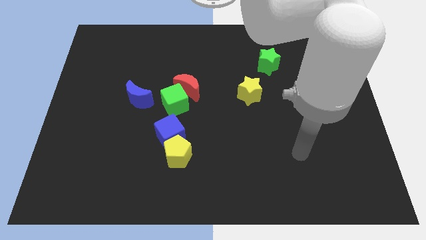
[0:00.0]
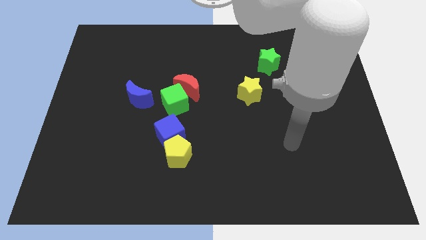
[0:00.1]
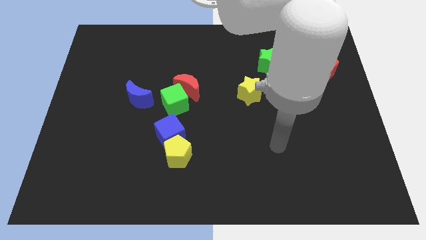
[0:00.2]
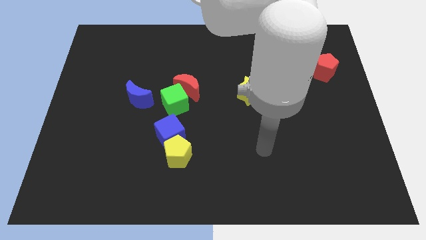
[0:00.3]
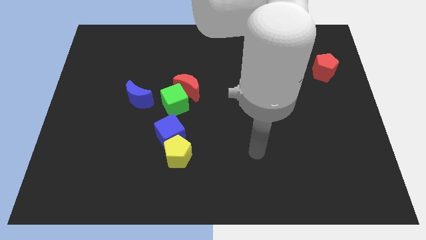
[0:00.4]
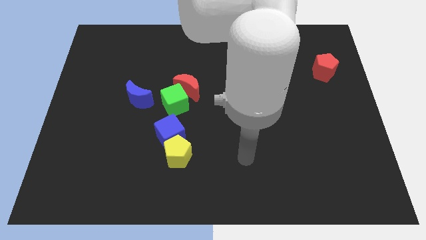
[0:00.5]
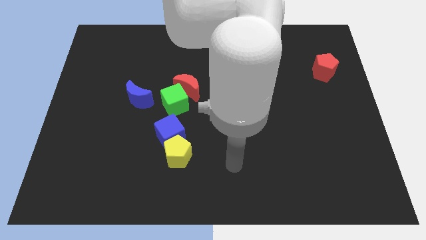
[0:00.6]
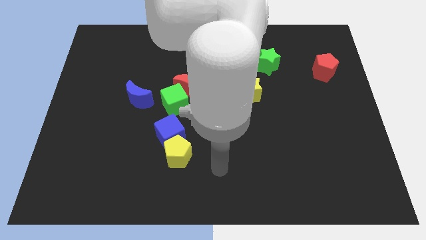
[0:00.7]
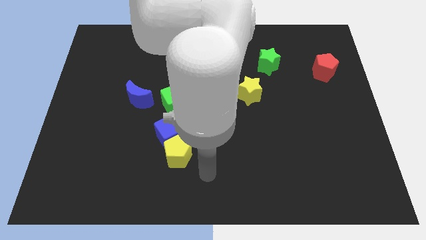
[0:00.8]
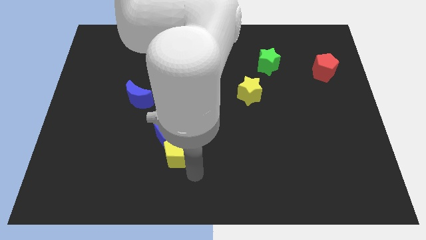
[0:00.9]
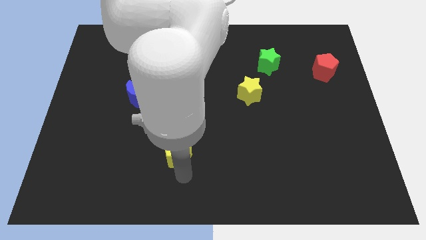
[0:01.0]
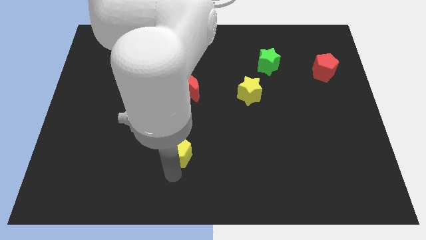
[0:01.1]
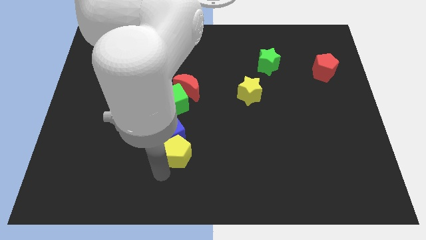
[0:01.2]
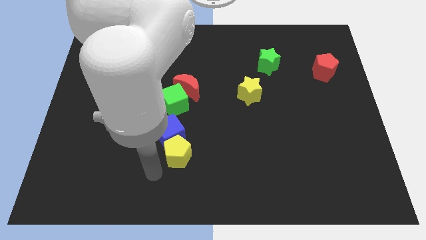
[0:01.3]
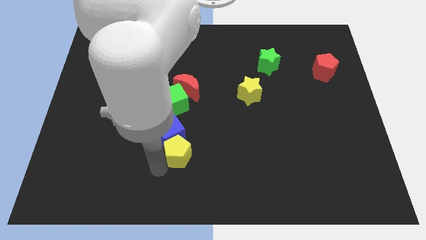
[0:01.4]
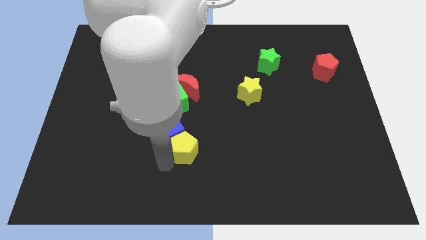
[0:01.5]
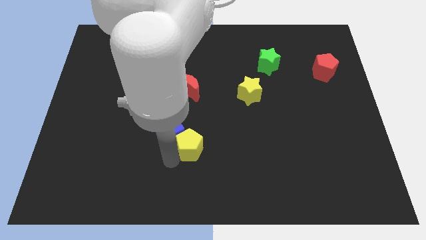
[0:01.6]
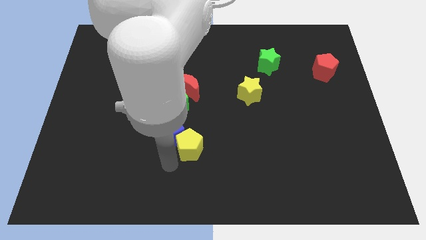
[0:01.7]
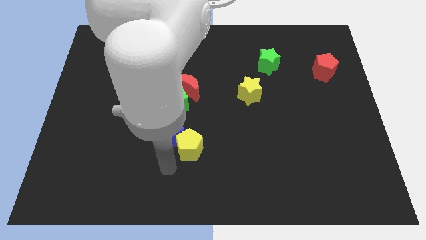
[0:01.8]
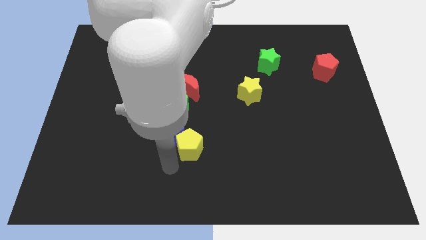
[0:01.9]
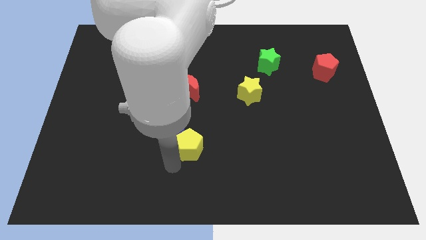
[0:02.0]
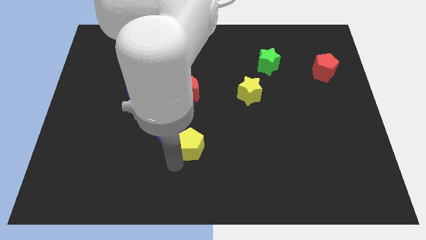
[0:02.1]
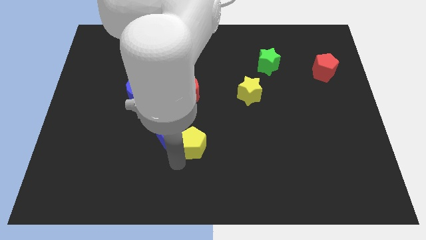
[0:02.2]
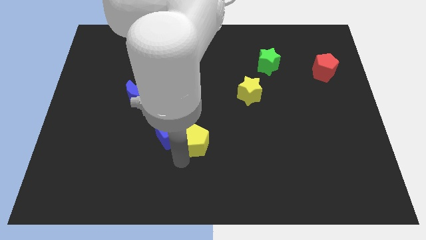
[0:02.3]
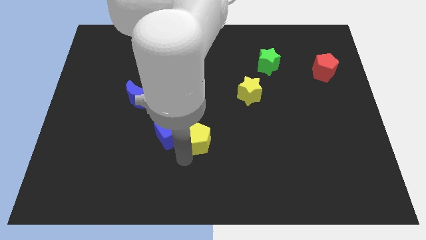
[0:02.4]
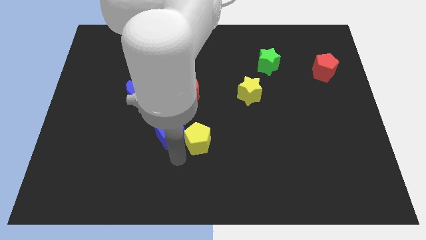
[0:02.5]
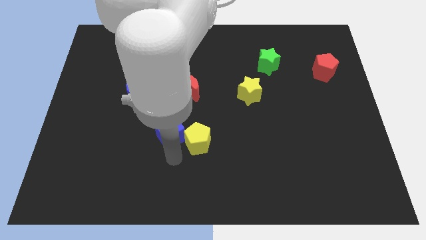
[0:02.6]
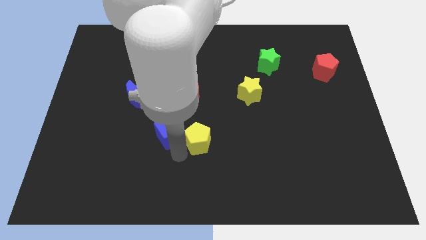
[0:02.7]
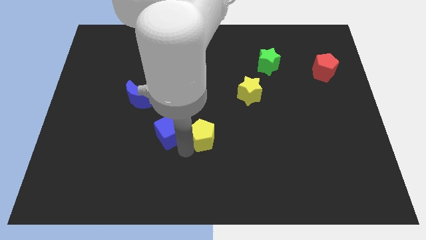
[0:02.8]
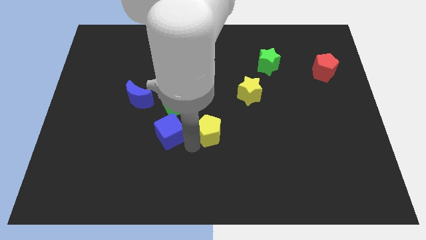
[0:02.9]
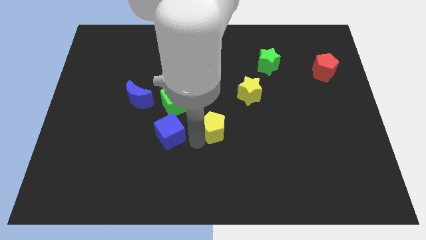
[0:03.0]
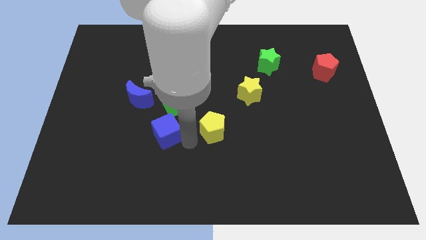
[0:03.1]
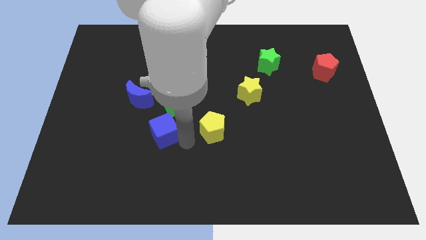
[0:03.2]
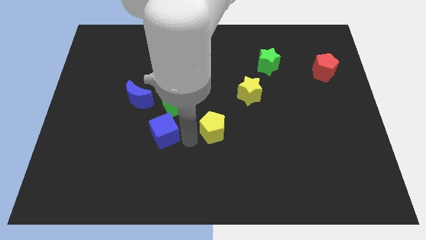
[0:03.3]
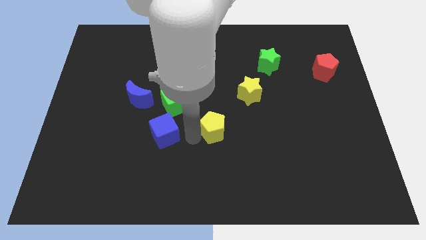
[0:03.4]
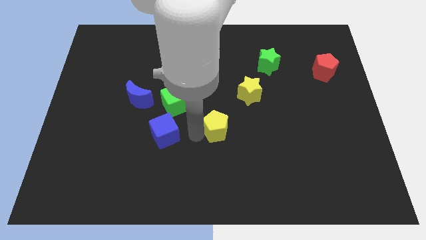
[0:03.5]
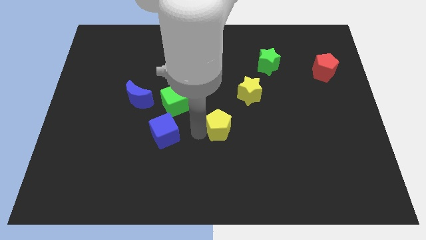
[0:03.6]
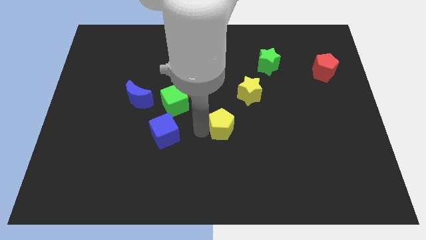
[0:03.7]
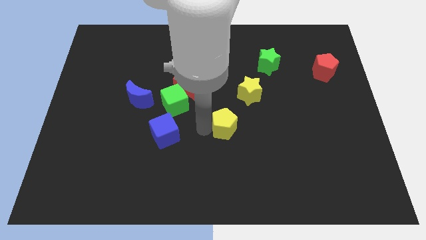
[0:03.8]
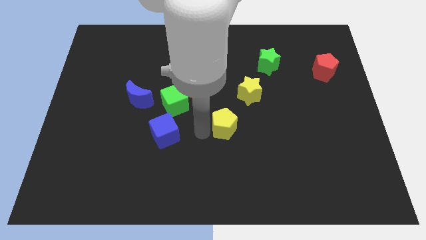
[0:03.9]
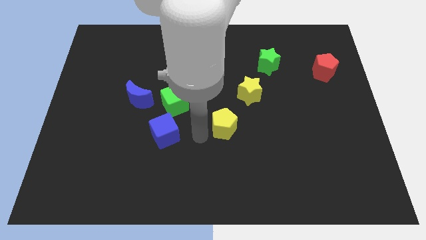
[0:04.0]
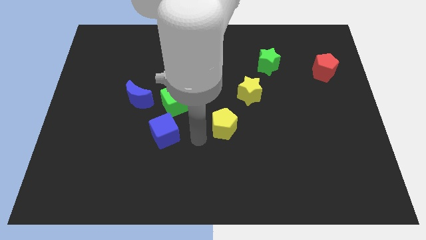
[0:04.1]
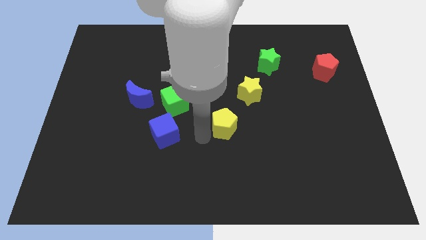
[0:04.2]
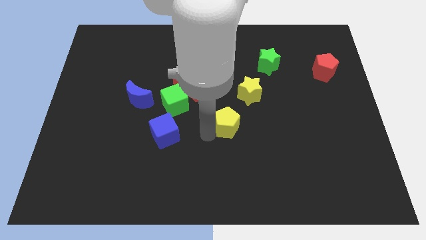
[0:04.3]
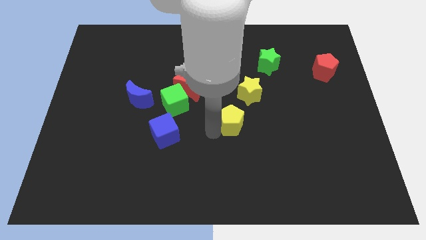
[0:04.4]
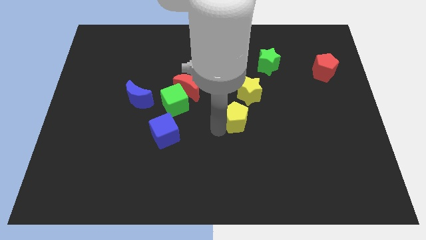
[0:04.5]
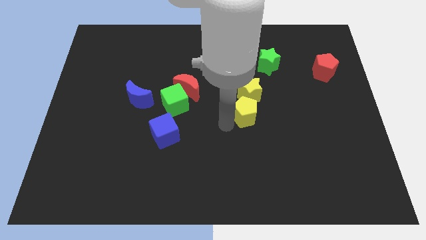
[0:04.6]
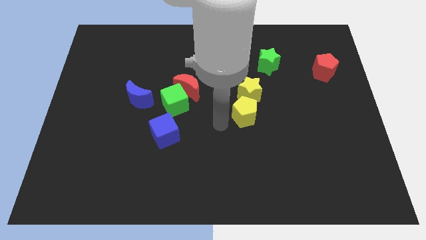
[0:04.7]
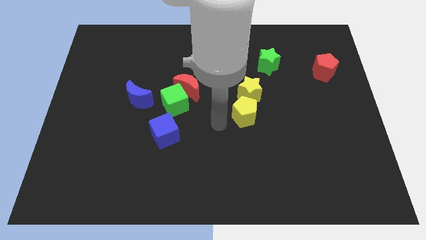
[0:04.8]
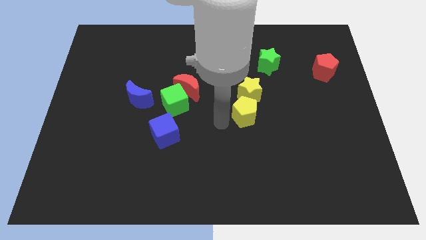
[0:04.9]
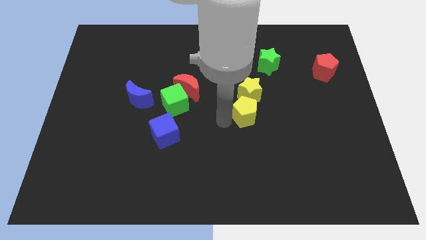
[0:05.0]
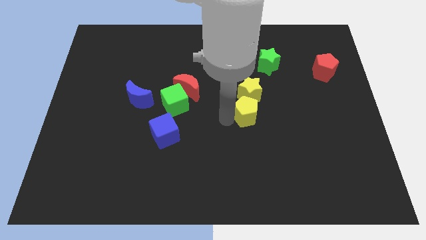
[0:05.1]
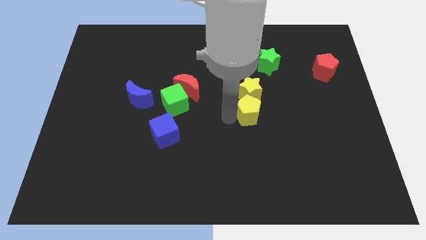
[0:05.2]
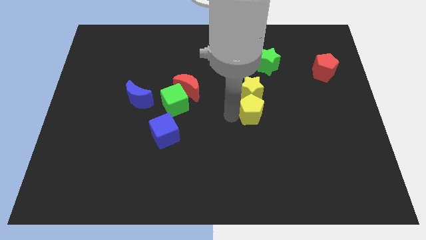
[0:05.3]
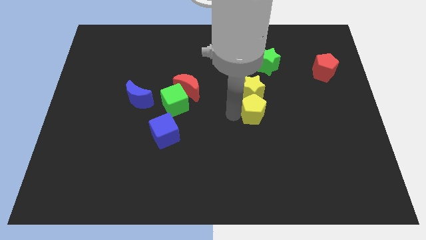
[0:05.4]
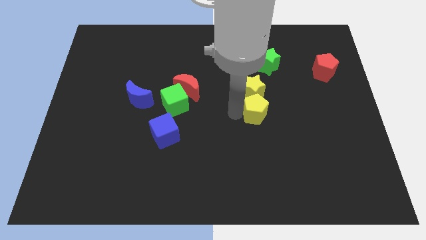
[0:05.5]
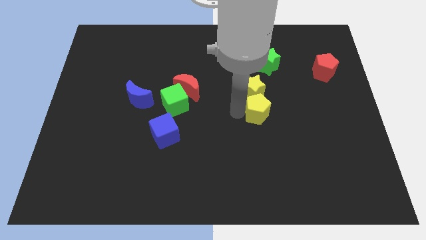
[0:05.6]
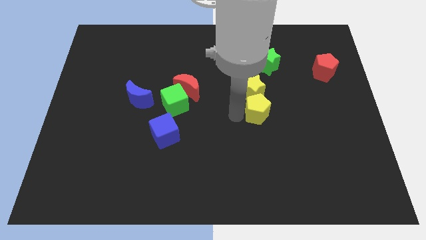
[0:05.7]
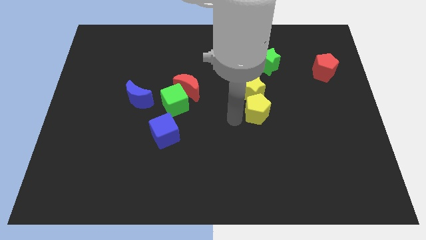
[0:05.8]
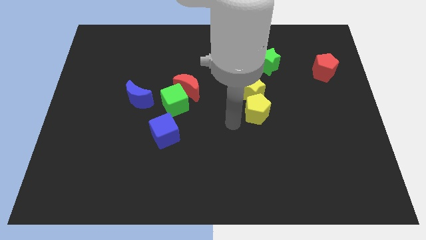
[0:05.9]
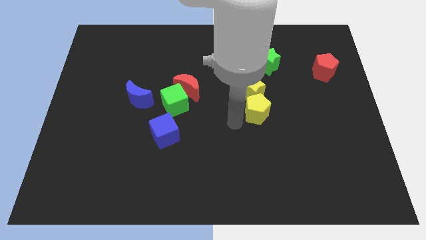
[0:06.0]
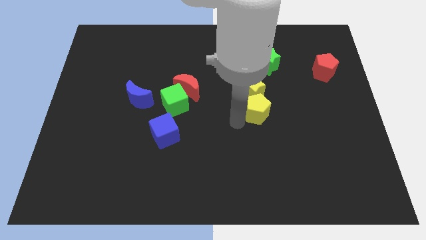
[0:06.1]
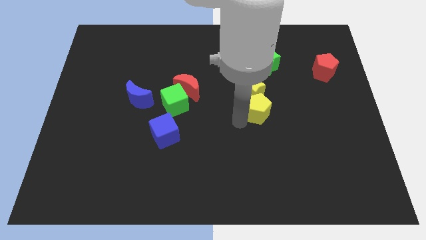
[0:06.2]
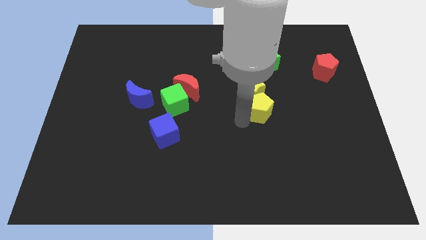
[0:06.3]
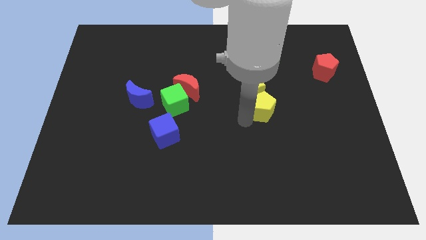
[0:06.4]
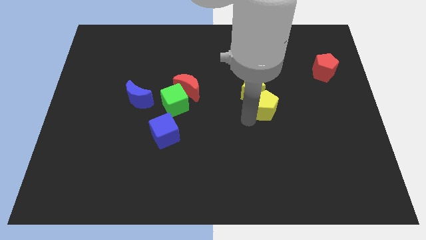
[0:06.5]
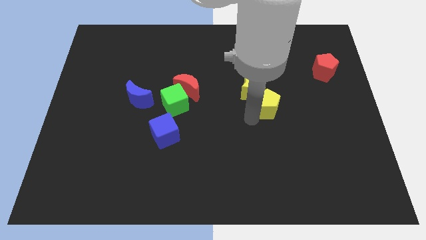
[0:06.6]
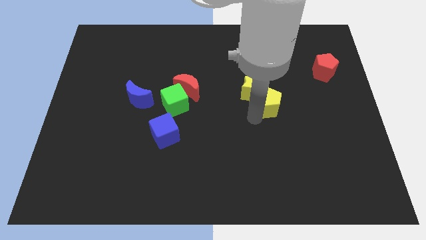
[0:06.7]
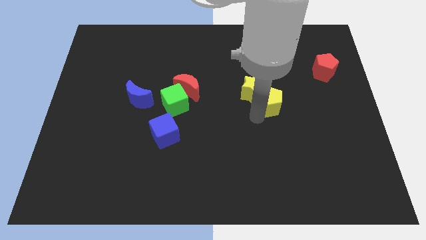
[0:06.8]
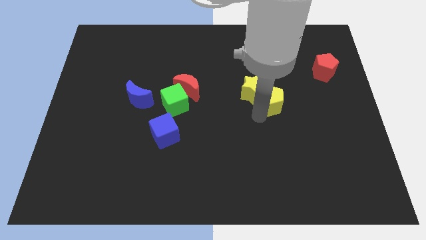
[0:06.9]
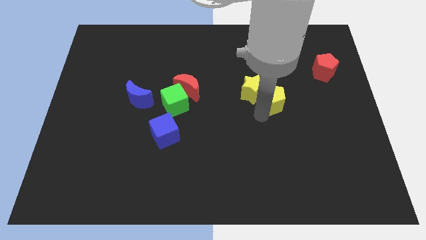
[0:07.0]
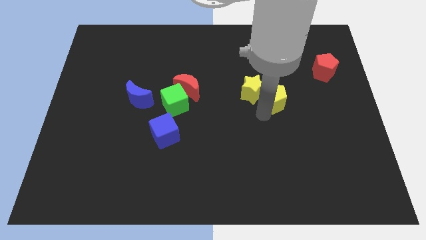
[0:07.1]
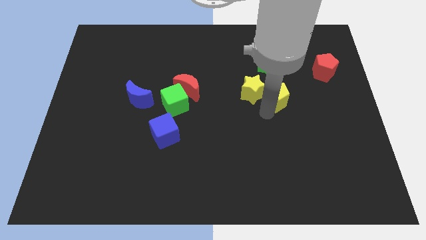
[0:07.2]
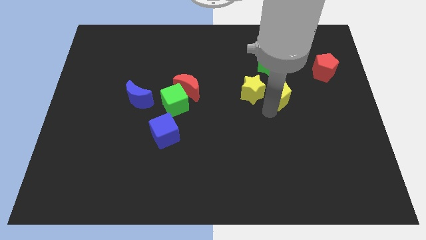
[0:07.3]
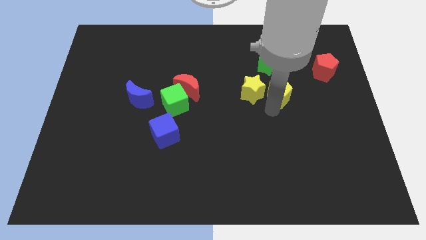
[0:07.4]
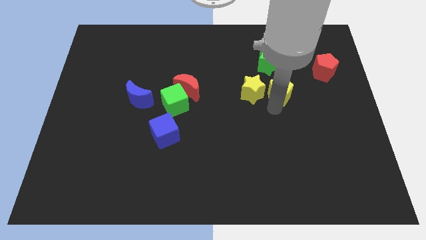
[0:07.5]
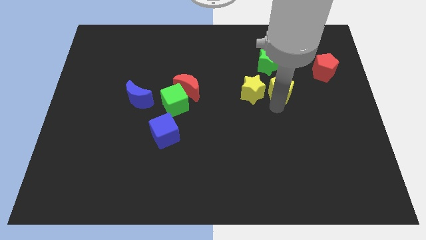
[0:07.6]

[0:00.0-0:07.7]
put the yellow pentagon diagonally up and to the right of the yellow star
